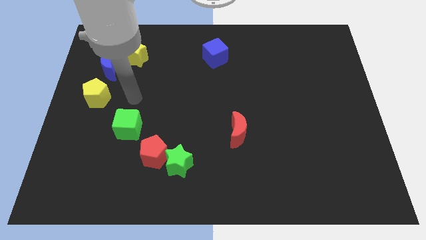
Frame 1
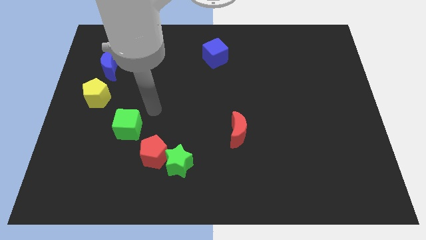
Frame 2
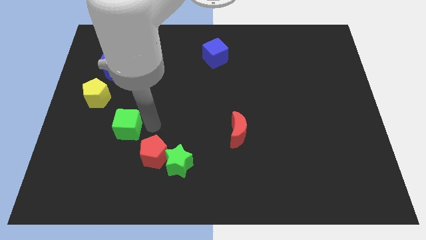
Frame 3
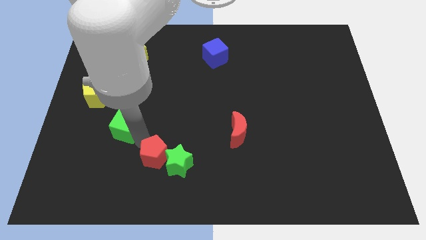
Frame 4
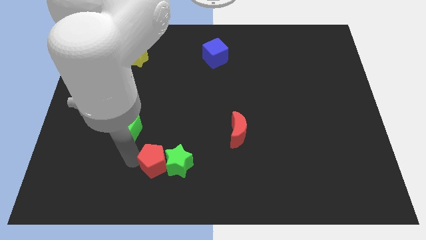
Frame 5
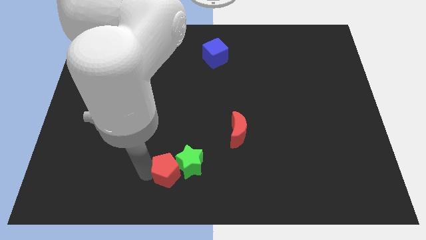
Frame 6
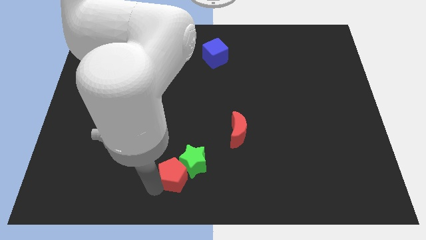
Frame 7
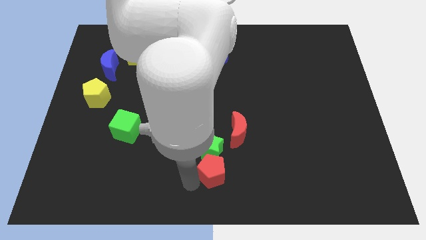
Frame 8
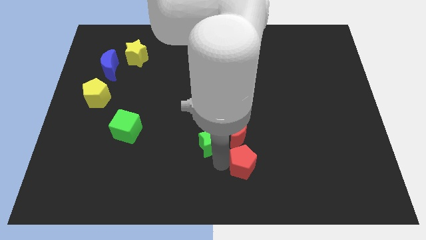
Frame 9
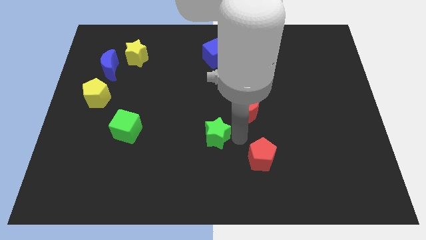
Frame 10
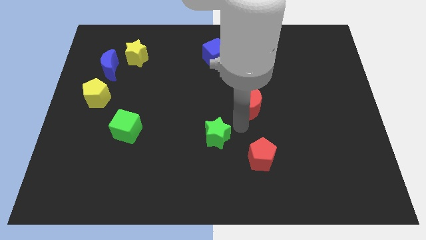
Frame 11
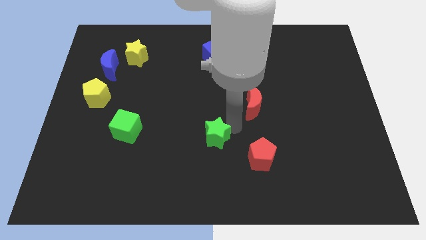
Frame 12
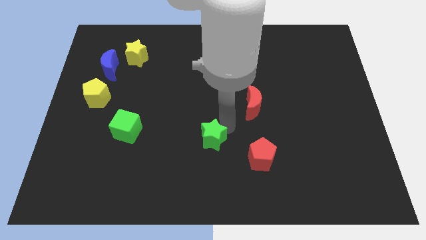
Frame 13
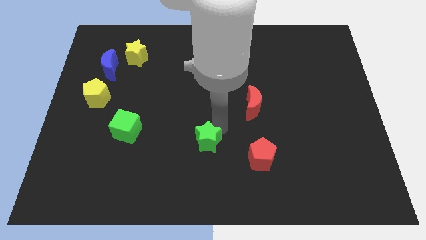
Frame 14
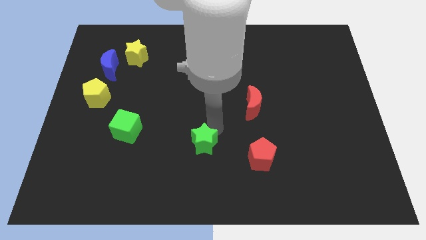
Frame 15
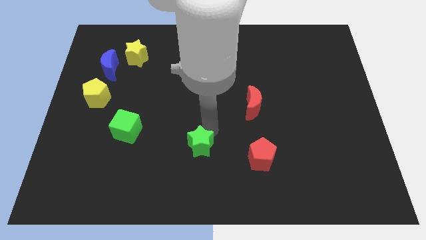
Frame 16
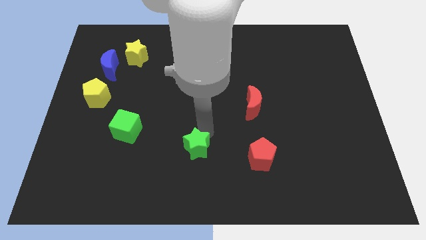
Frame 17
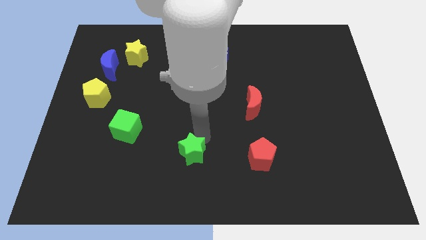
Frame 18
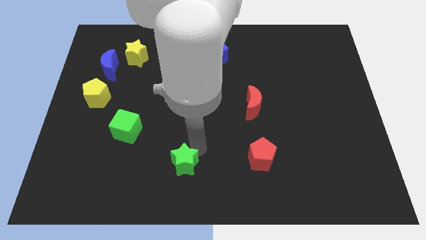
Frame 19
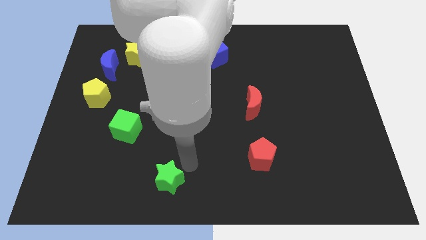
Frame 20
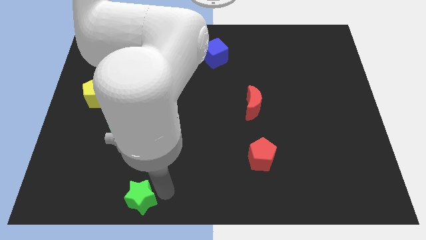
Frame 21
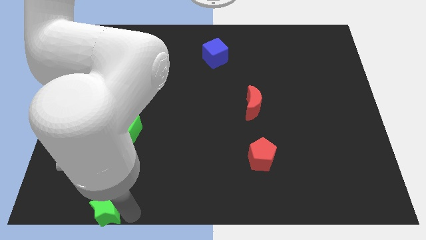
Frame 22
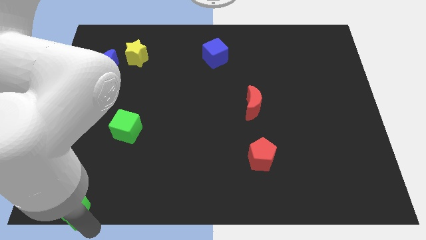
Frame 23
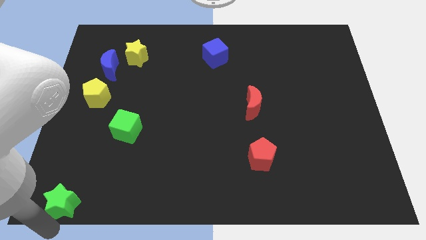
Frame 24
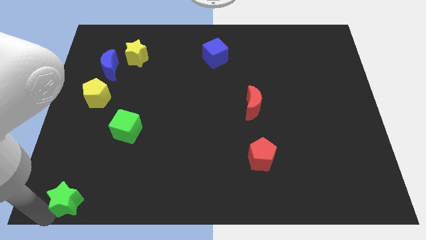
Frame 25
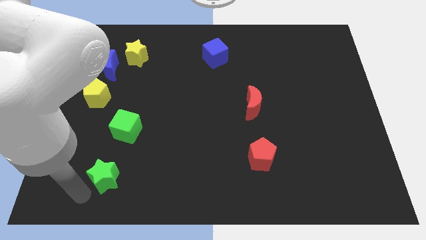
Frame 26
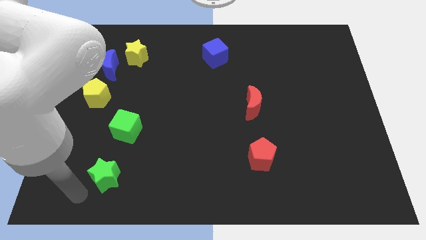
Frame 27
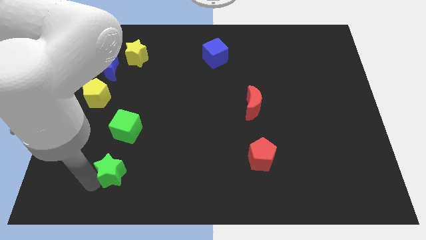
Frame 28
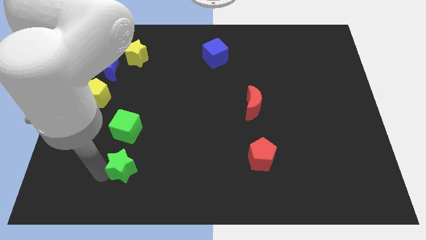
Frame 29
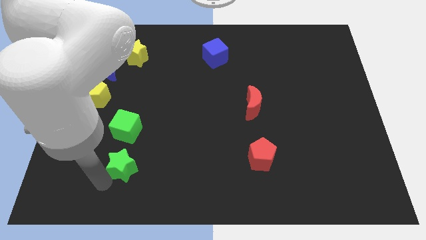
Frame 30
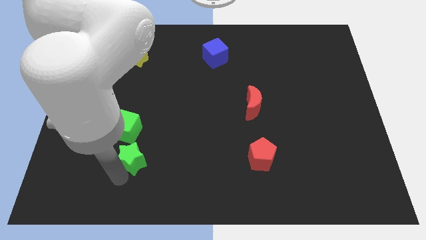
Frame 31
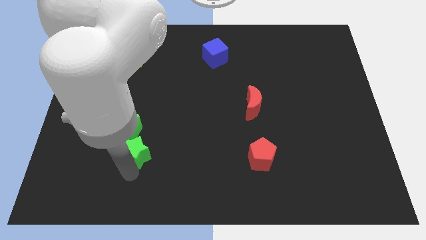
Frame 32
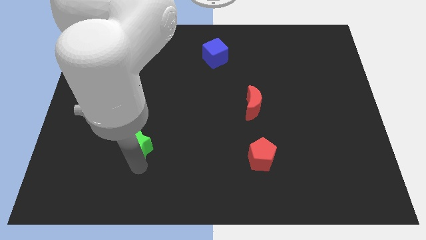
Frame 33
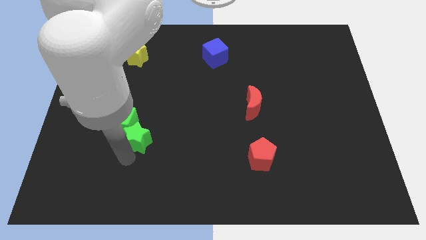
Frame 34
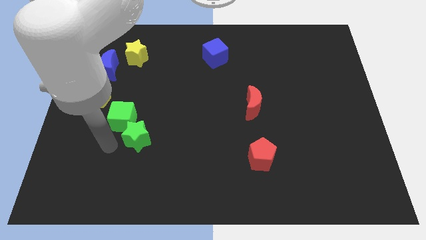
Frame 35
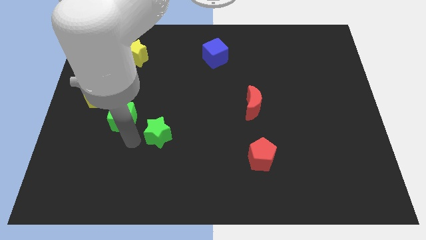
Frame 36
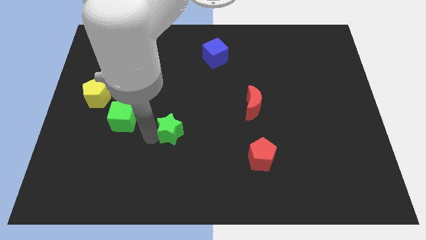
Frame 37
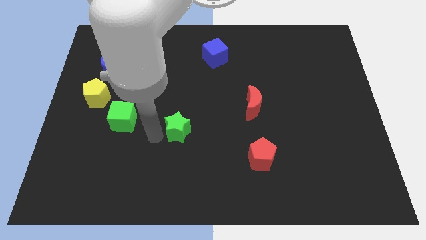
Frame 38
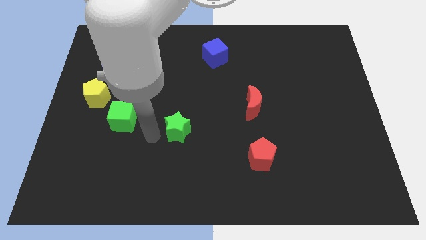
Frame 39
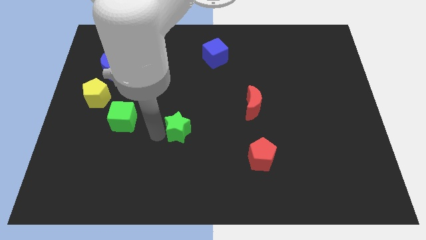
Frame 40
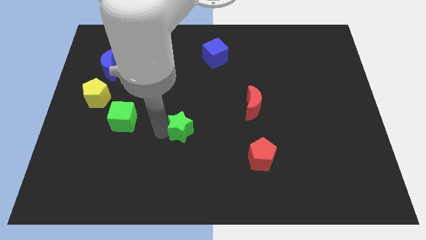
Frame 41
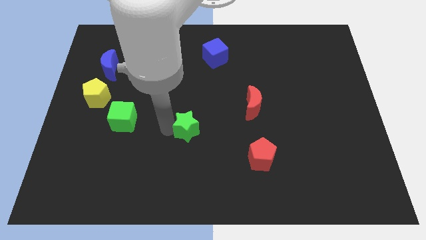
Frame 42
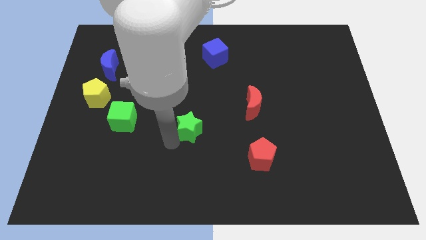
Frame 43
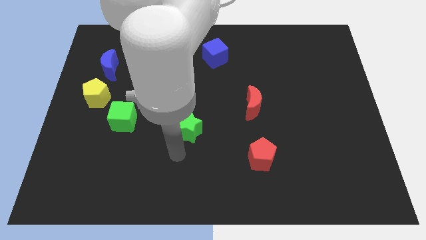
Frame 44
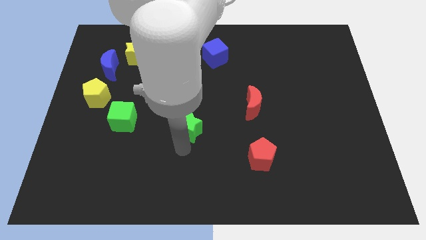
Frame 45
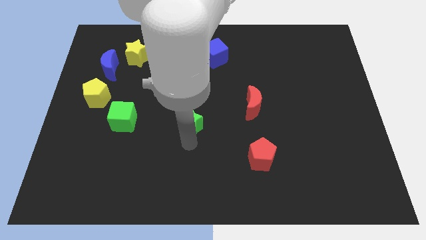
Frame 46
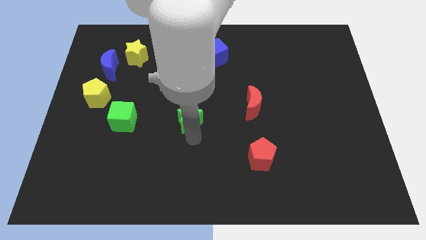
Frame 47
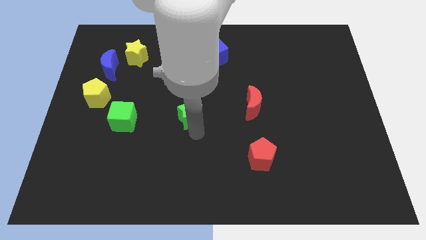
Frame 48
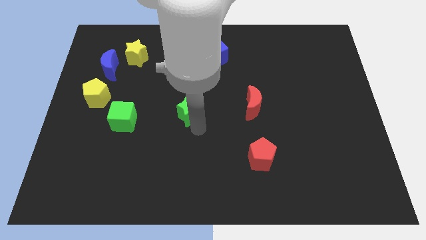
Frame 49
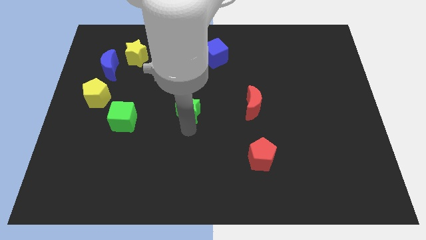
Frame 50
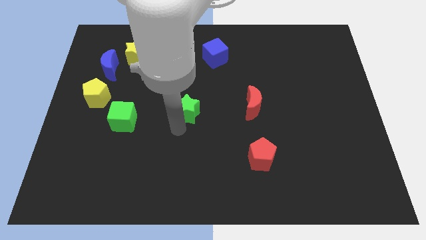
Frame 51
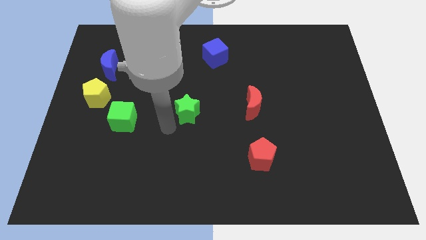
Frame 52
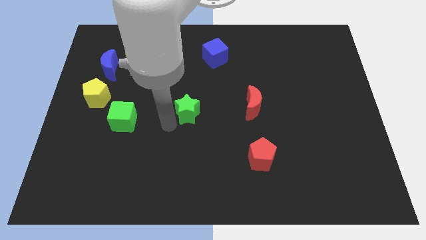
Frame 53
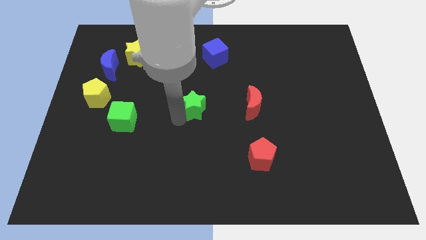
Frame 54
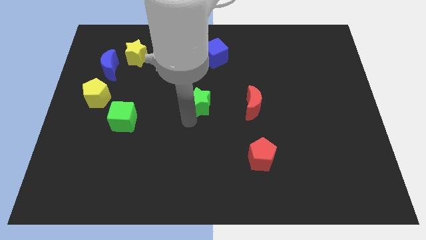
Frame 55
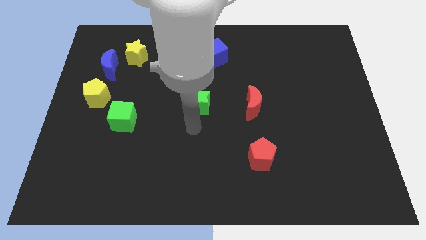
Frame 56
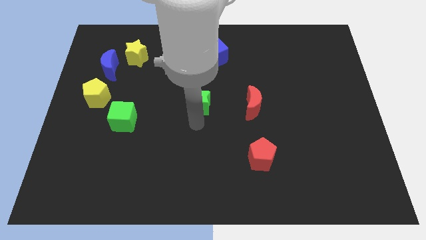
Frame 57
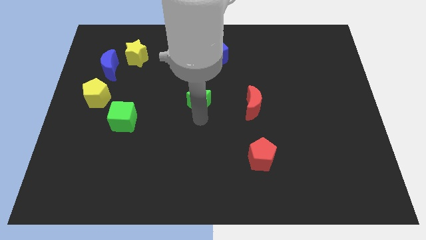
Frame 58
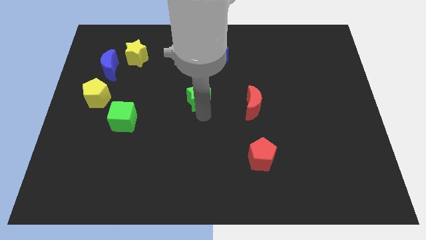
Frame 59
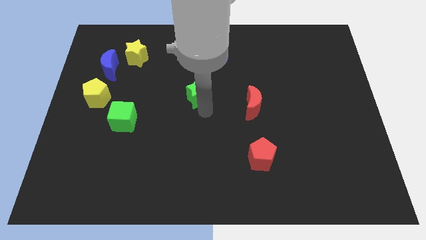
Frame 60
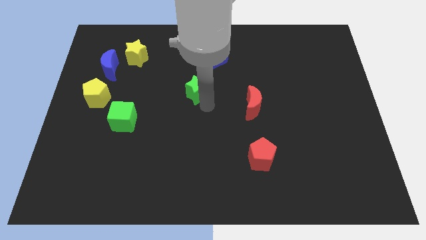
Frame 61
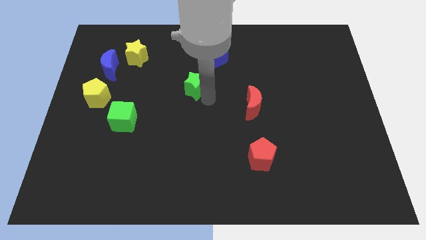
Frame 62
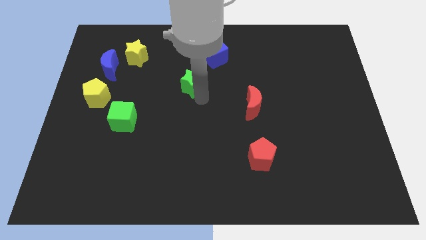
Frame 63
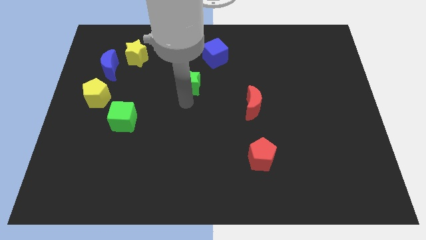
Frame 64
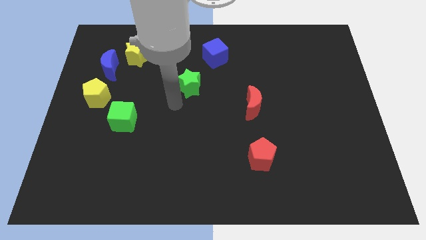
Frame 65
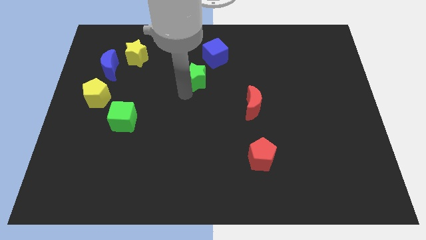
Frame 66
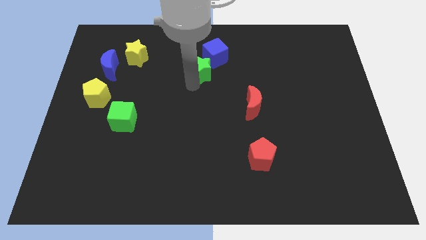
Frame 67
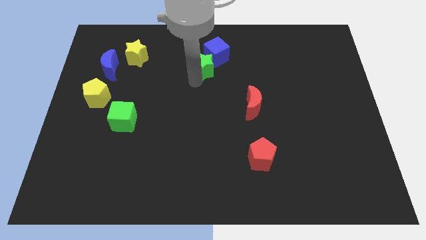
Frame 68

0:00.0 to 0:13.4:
slide the green star towards the blue cube

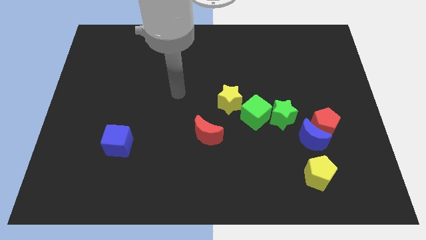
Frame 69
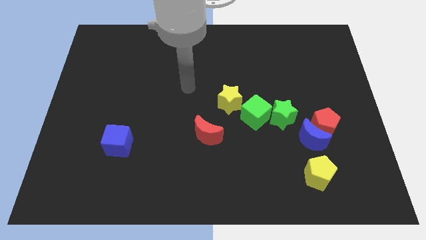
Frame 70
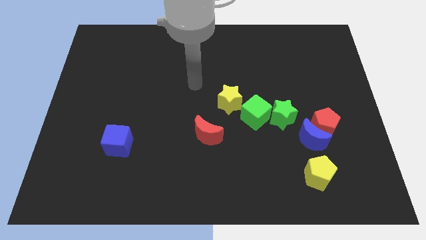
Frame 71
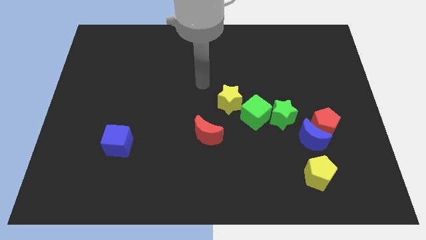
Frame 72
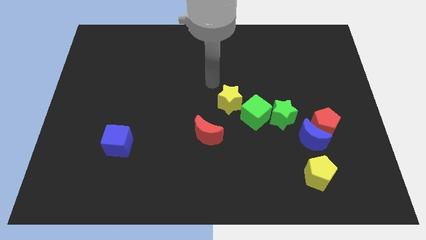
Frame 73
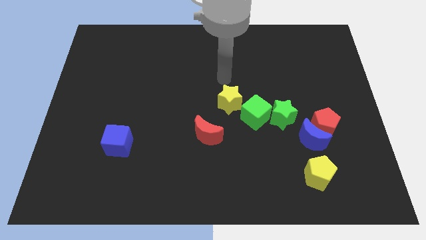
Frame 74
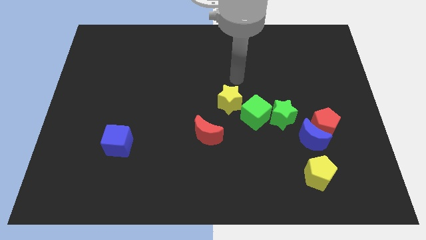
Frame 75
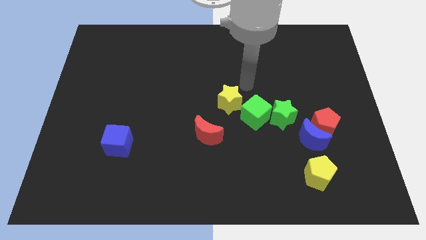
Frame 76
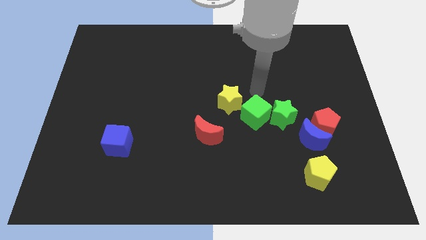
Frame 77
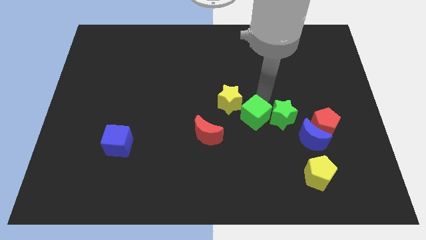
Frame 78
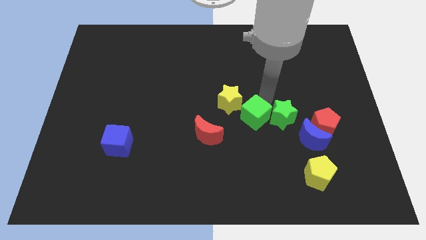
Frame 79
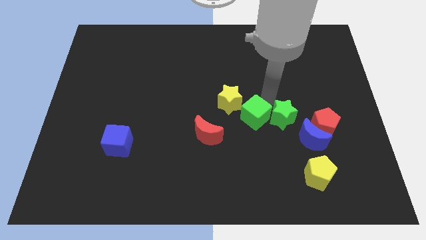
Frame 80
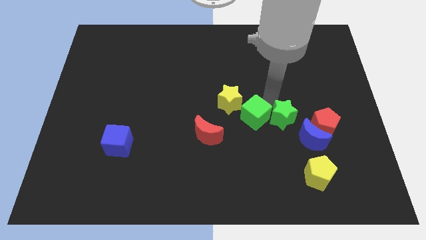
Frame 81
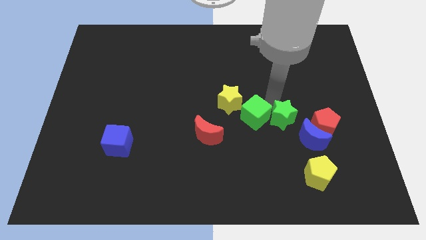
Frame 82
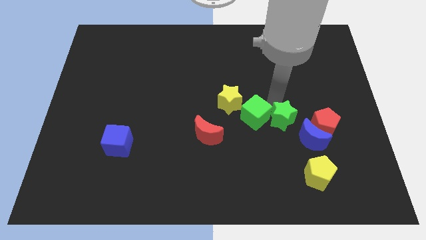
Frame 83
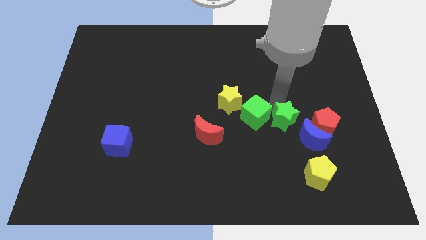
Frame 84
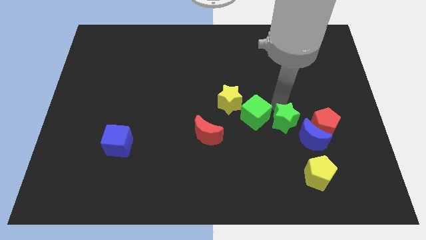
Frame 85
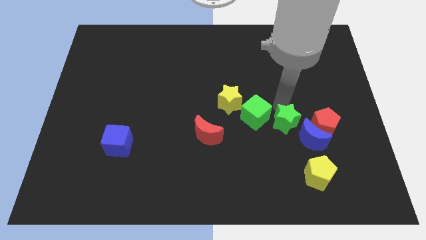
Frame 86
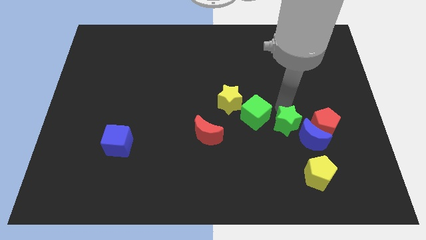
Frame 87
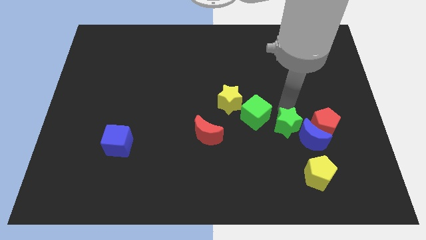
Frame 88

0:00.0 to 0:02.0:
move the green star next to the blue moon
